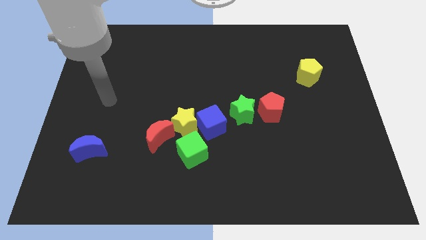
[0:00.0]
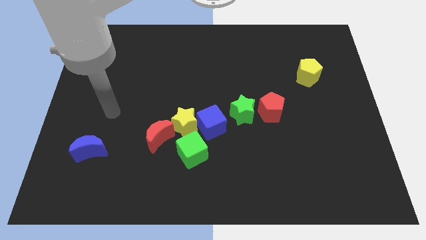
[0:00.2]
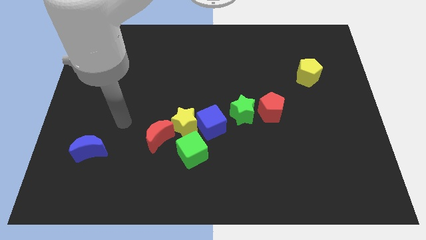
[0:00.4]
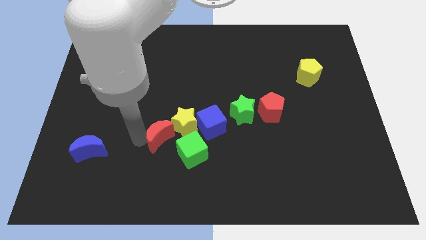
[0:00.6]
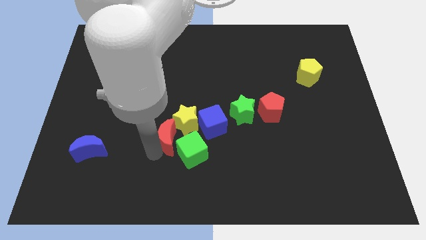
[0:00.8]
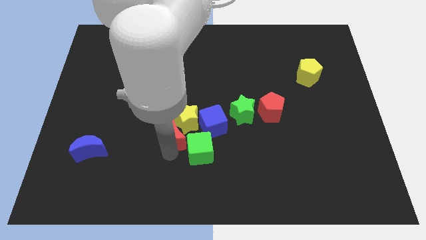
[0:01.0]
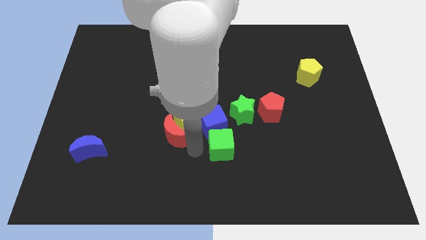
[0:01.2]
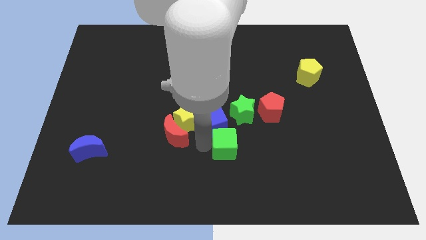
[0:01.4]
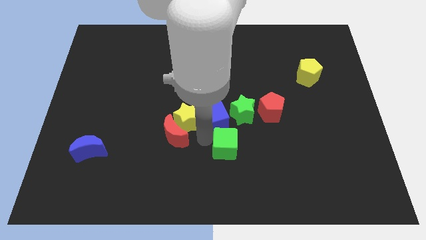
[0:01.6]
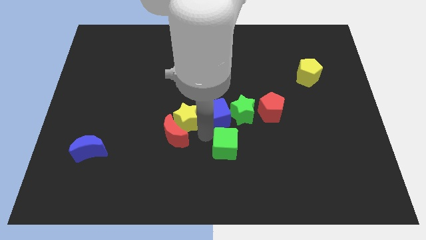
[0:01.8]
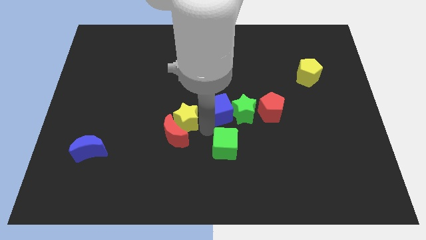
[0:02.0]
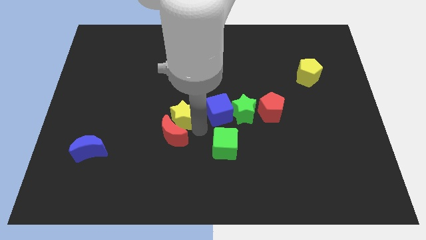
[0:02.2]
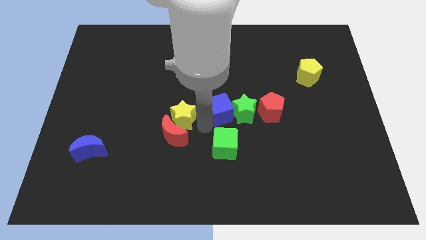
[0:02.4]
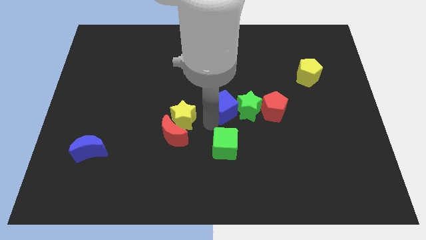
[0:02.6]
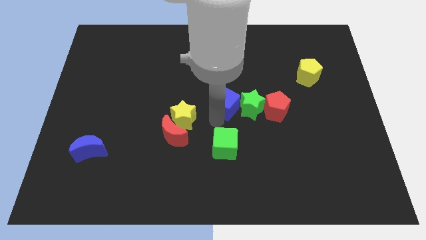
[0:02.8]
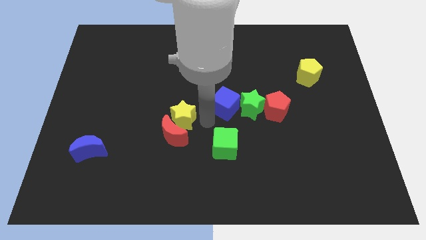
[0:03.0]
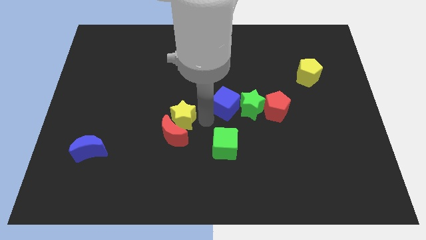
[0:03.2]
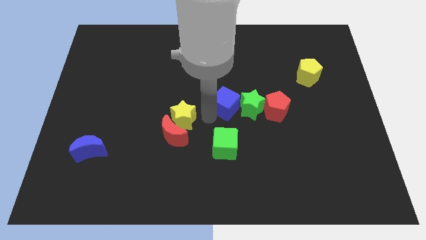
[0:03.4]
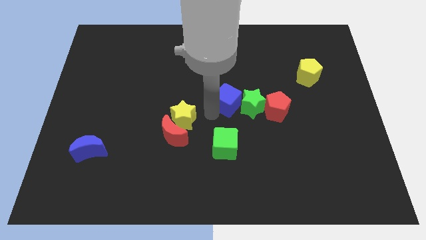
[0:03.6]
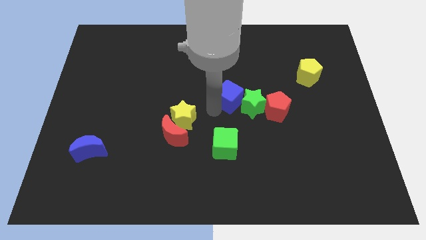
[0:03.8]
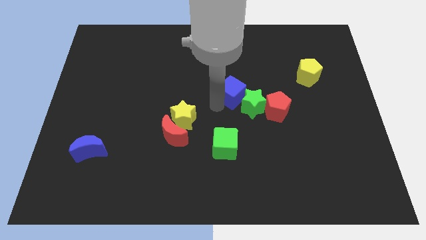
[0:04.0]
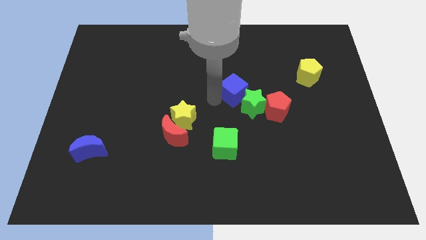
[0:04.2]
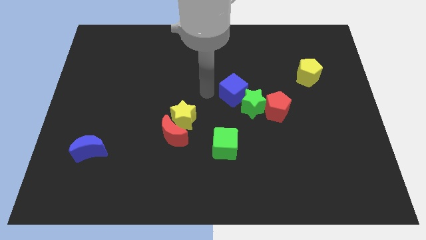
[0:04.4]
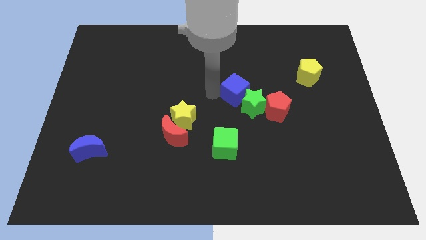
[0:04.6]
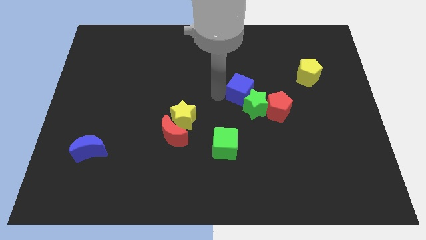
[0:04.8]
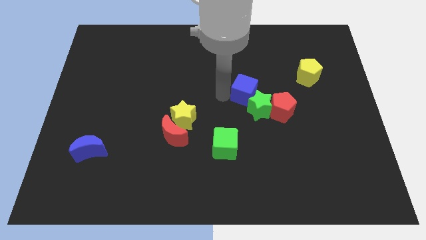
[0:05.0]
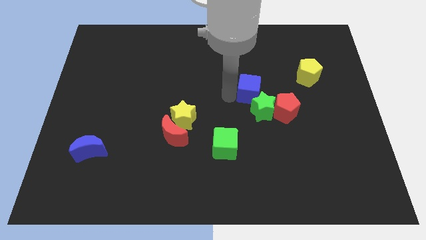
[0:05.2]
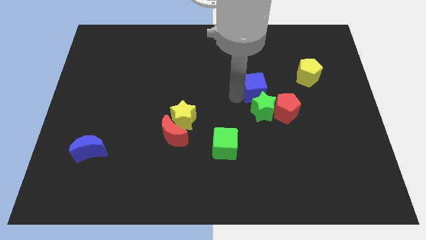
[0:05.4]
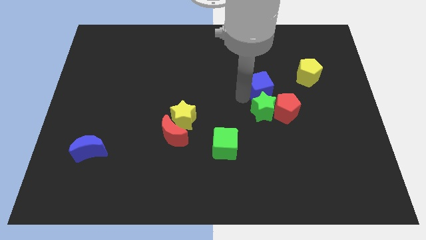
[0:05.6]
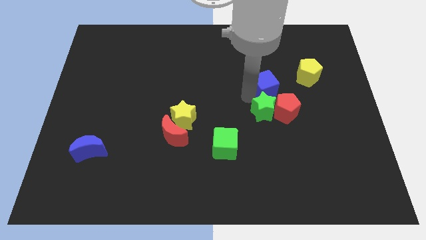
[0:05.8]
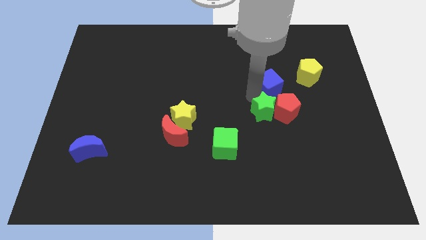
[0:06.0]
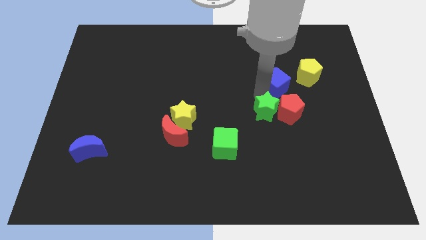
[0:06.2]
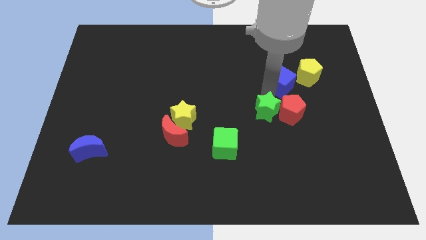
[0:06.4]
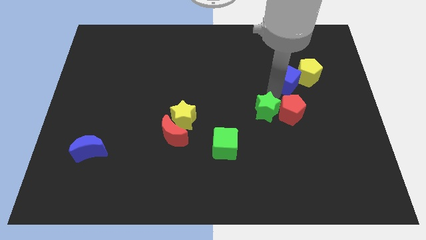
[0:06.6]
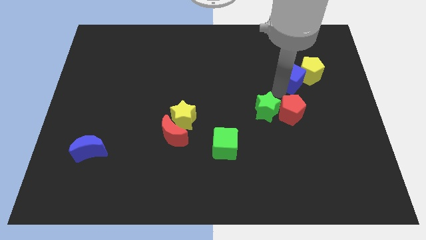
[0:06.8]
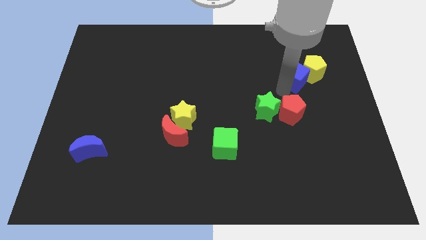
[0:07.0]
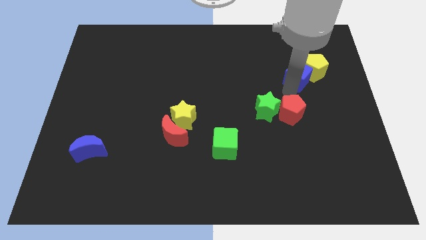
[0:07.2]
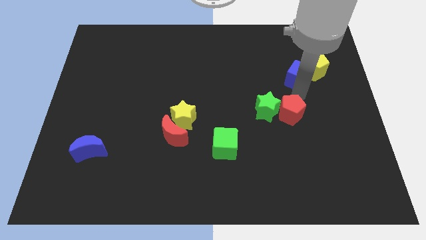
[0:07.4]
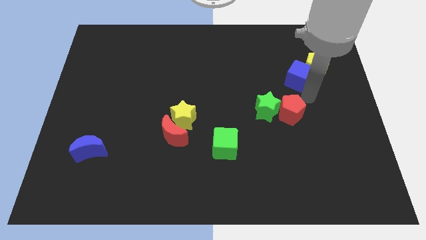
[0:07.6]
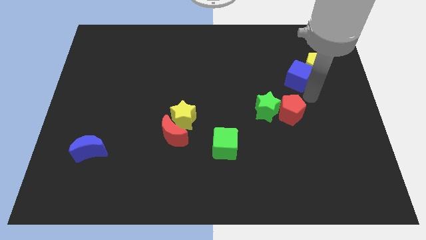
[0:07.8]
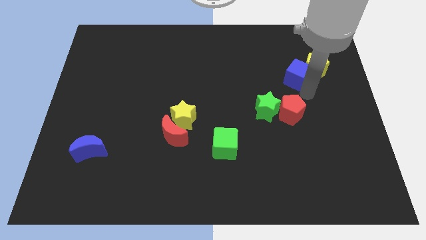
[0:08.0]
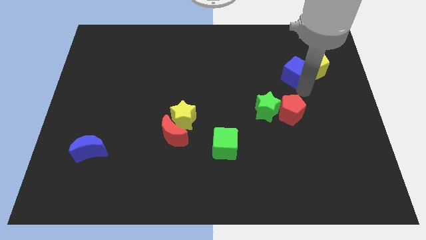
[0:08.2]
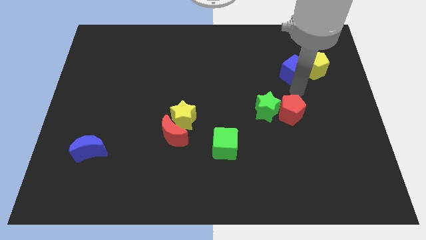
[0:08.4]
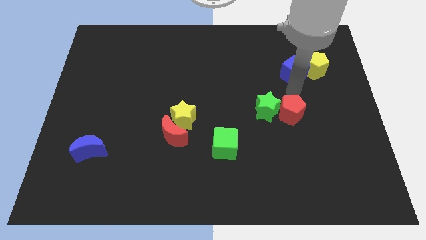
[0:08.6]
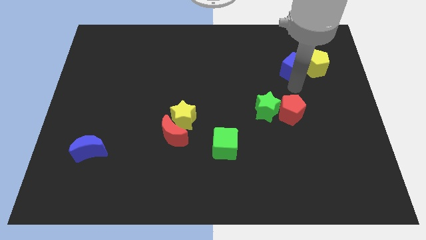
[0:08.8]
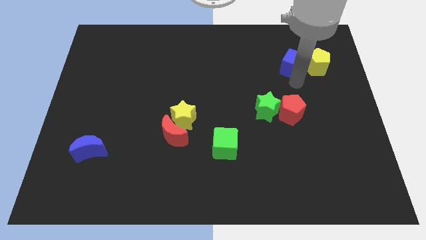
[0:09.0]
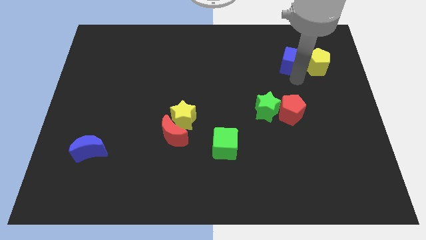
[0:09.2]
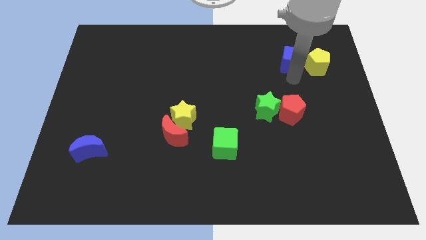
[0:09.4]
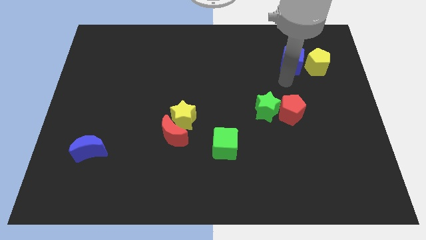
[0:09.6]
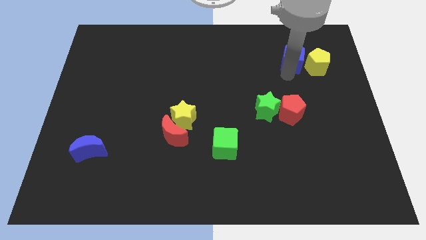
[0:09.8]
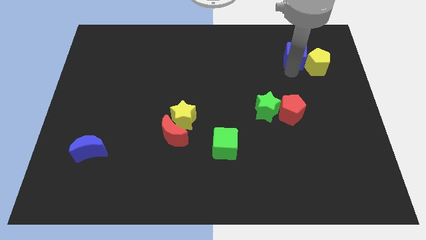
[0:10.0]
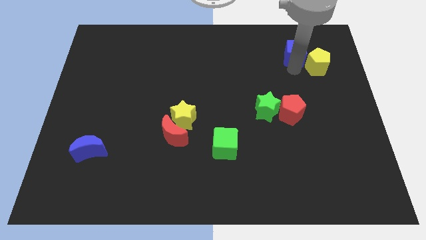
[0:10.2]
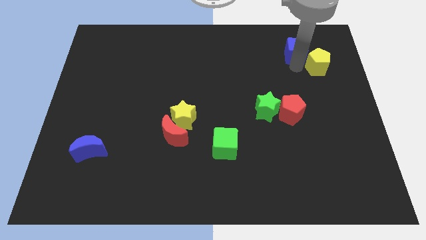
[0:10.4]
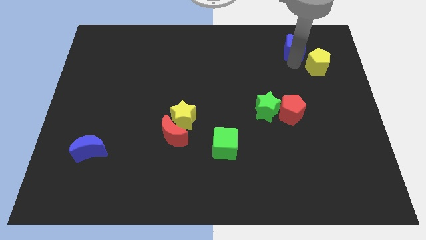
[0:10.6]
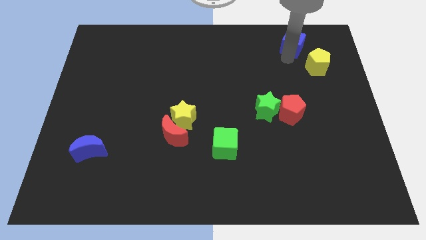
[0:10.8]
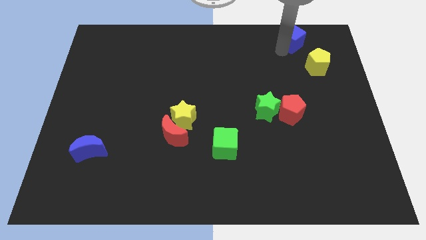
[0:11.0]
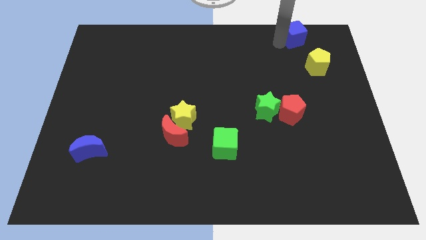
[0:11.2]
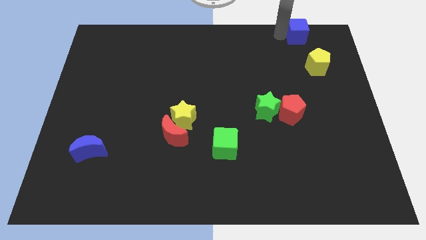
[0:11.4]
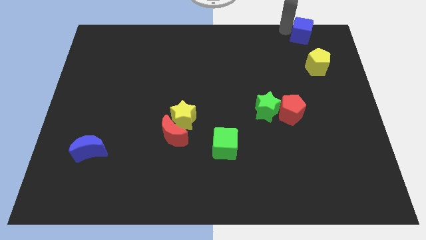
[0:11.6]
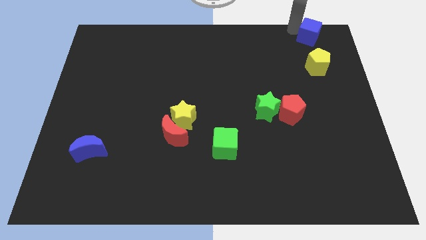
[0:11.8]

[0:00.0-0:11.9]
move the blue cube to the top right

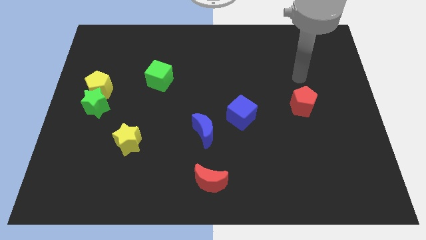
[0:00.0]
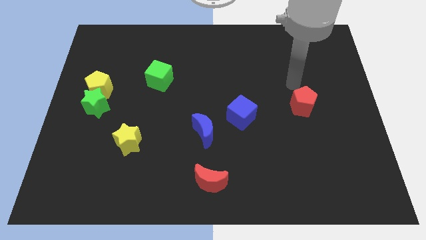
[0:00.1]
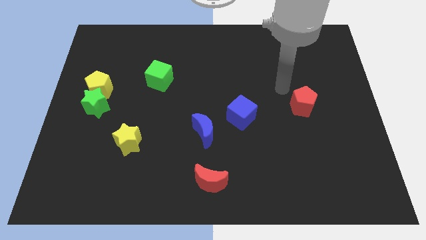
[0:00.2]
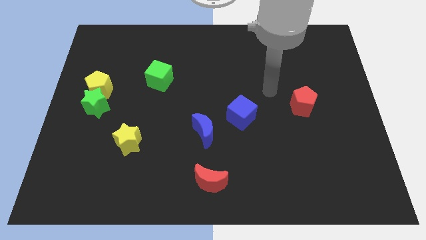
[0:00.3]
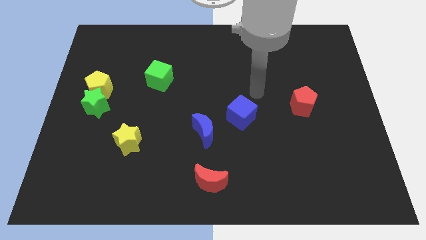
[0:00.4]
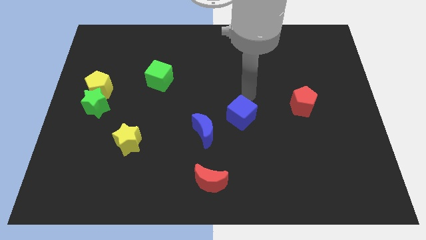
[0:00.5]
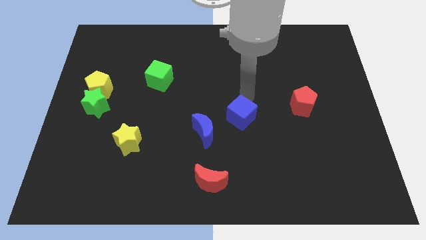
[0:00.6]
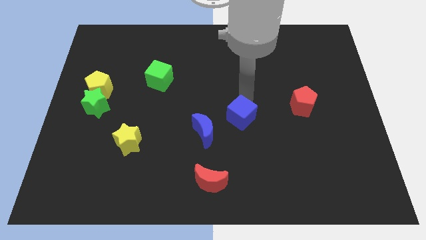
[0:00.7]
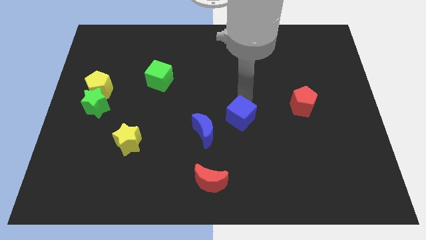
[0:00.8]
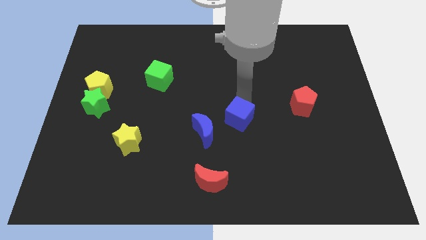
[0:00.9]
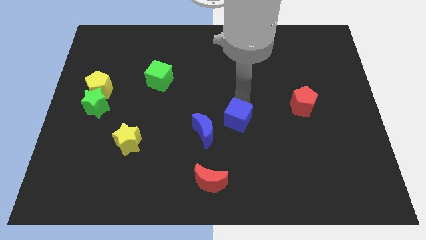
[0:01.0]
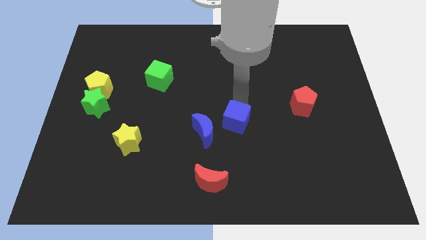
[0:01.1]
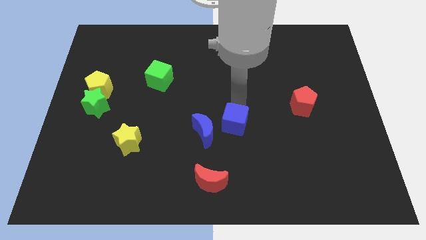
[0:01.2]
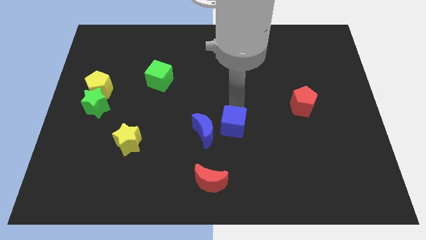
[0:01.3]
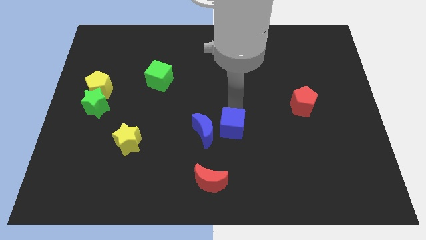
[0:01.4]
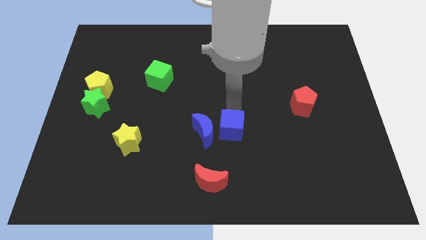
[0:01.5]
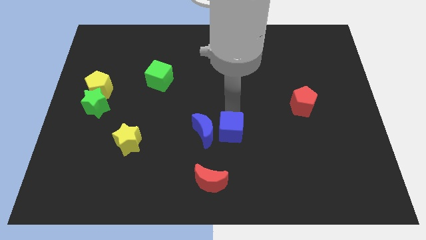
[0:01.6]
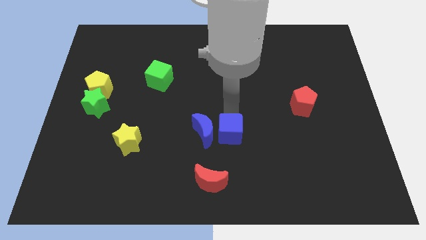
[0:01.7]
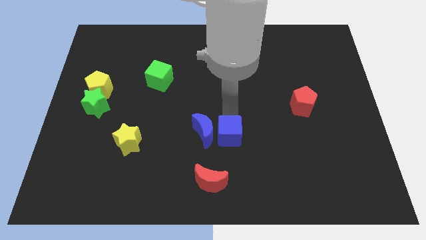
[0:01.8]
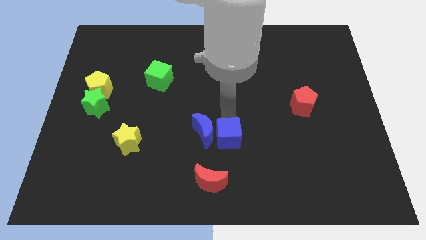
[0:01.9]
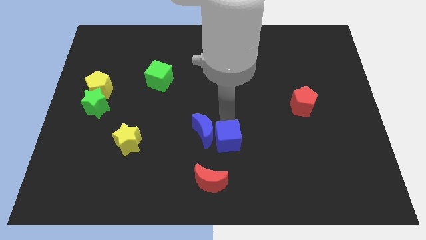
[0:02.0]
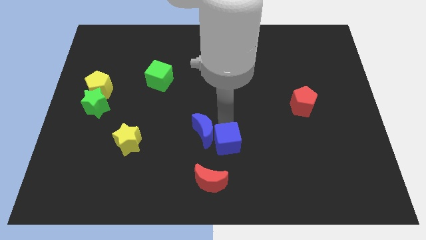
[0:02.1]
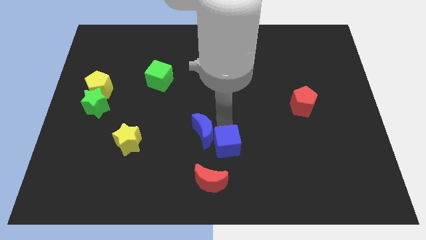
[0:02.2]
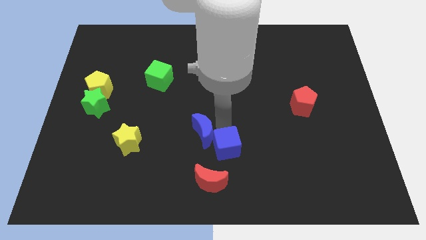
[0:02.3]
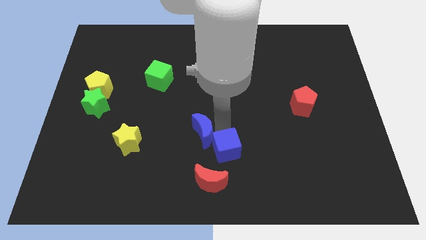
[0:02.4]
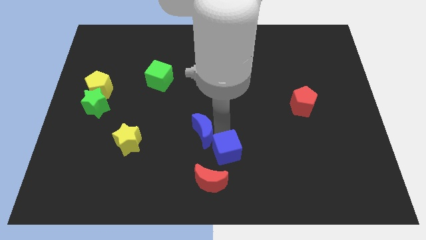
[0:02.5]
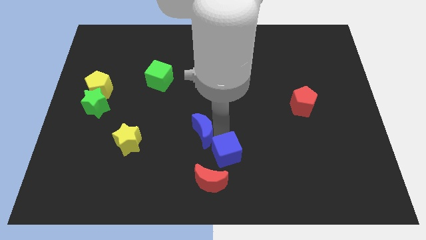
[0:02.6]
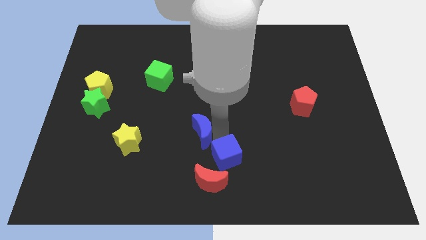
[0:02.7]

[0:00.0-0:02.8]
push the blue cube to the bottom
